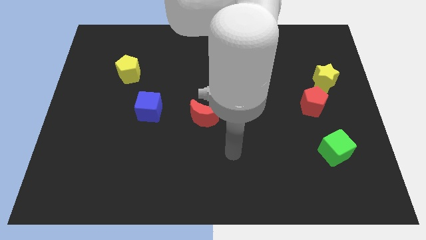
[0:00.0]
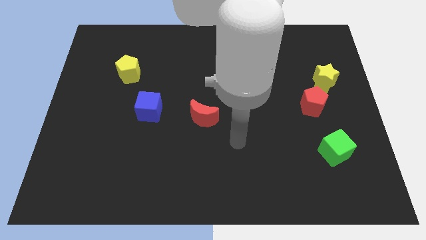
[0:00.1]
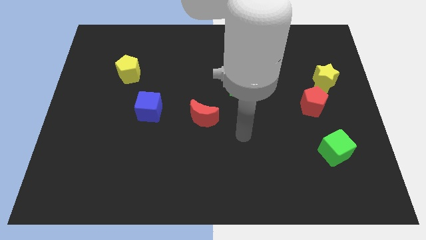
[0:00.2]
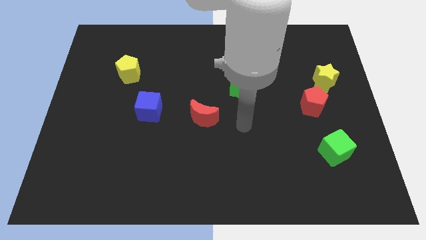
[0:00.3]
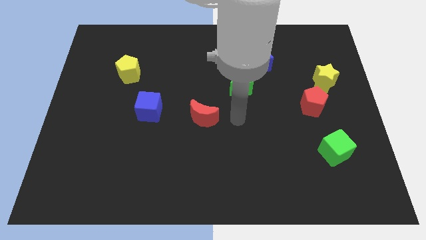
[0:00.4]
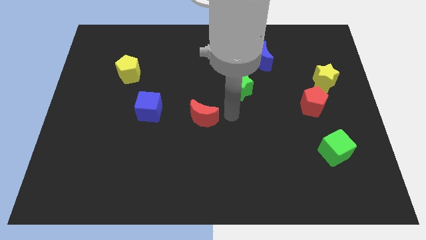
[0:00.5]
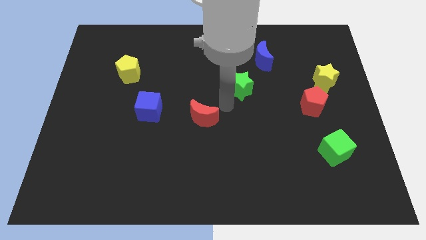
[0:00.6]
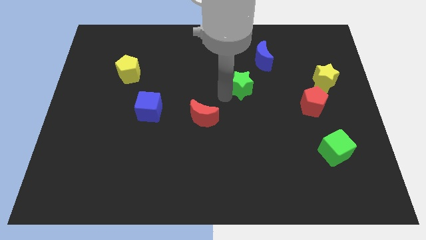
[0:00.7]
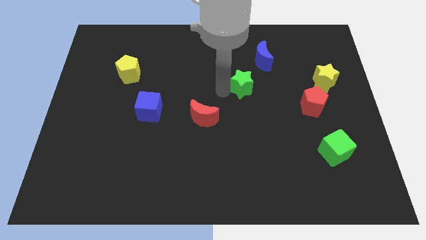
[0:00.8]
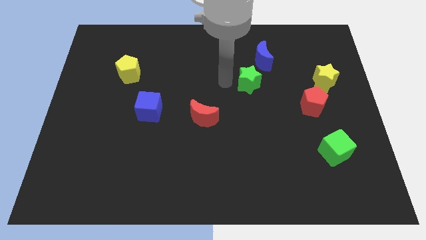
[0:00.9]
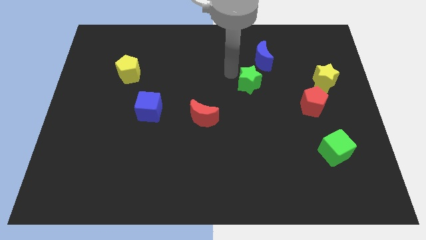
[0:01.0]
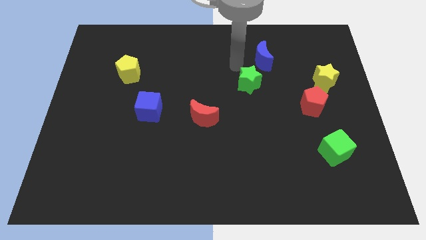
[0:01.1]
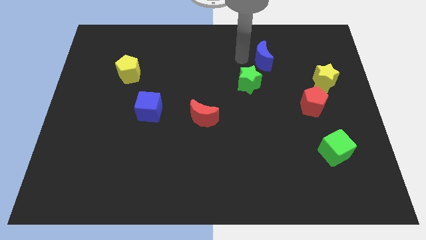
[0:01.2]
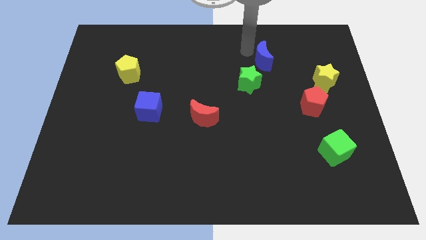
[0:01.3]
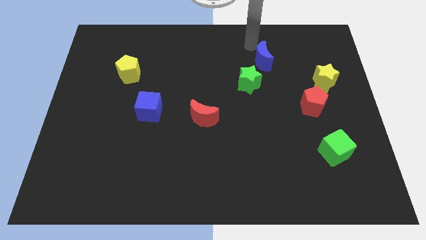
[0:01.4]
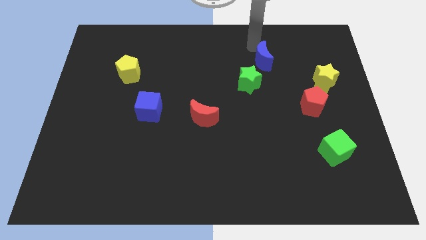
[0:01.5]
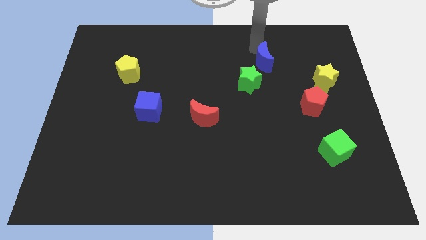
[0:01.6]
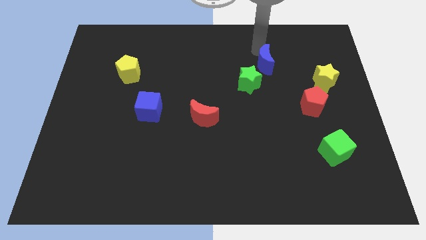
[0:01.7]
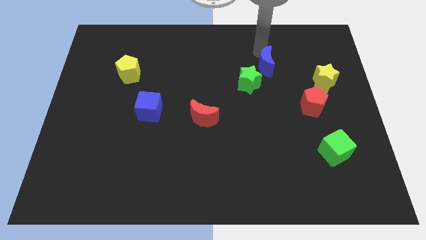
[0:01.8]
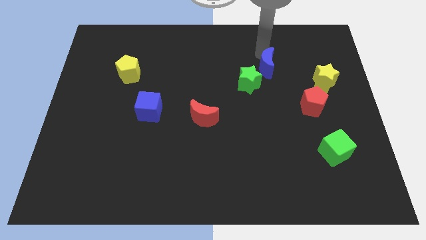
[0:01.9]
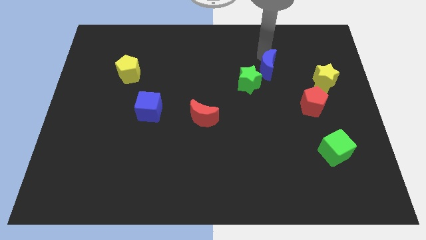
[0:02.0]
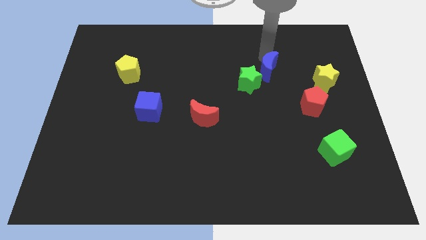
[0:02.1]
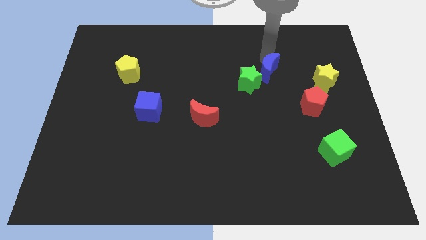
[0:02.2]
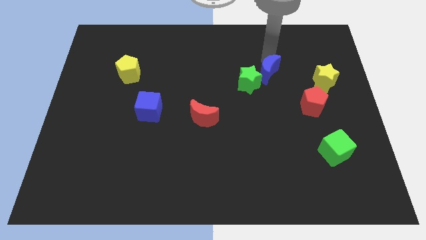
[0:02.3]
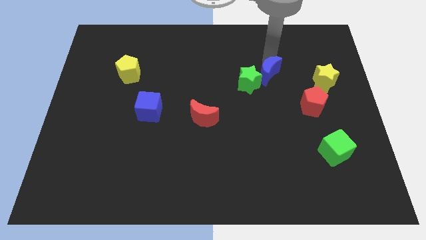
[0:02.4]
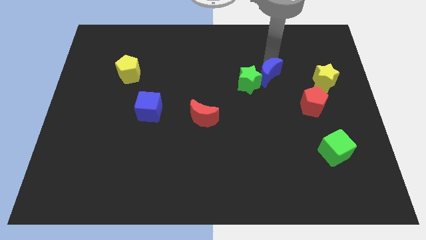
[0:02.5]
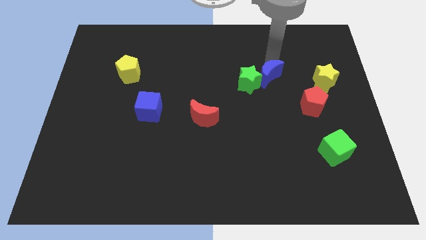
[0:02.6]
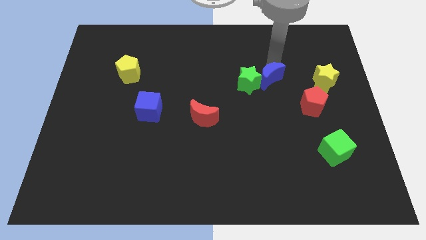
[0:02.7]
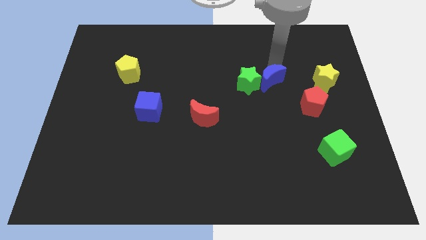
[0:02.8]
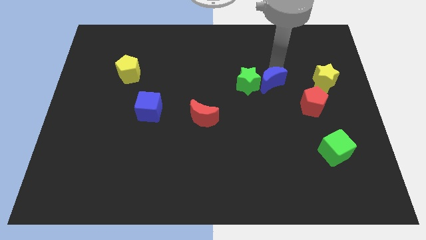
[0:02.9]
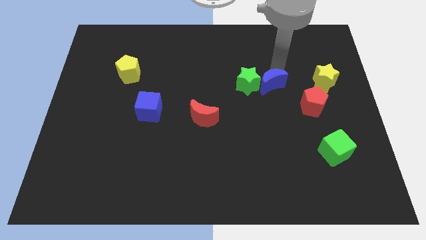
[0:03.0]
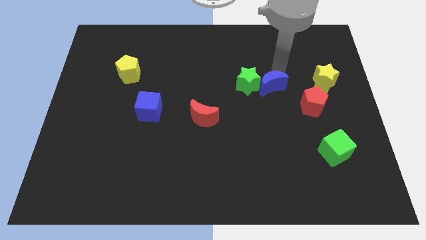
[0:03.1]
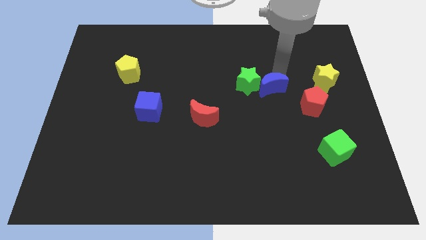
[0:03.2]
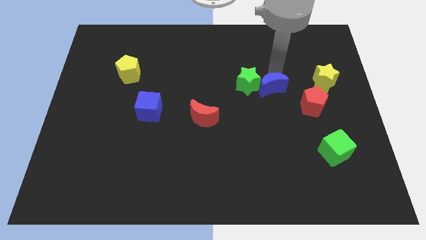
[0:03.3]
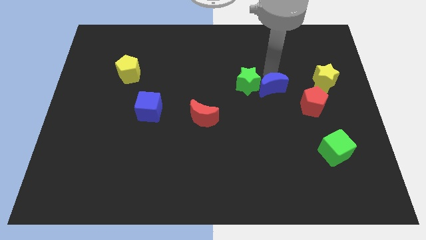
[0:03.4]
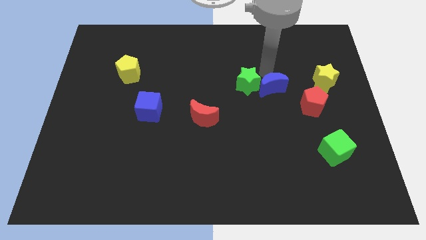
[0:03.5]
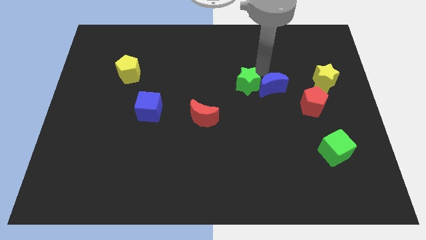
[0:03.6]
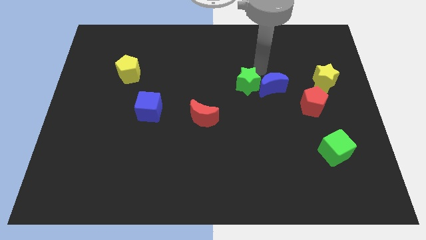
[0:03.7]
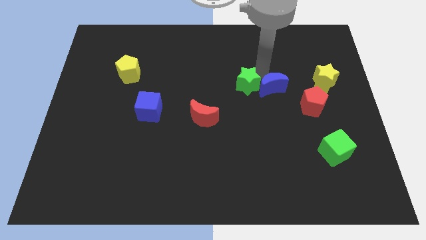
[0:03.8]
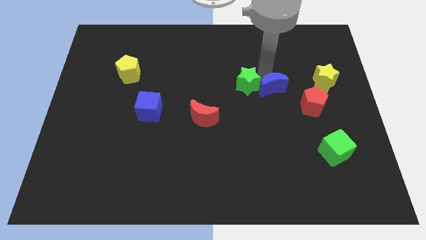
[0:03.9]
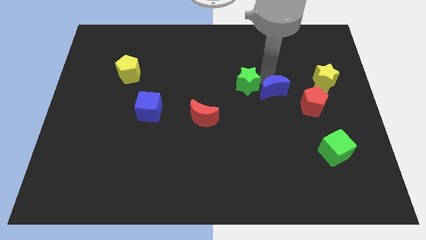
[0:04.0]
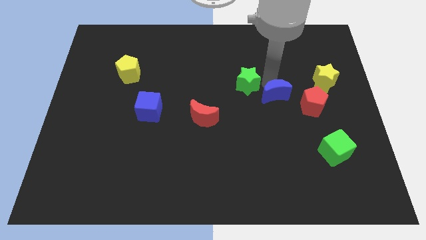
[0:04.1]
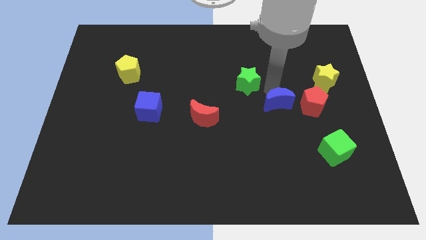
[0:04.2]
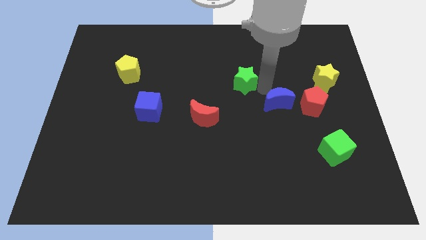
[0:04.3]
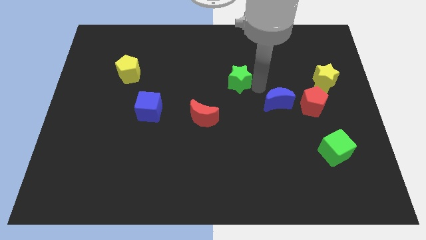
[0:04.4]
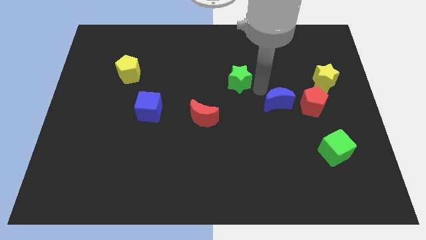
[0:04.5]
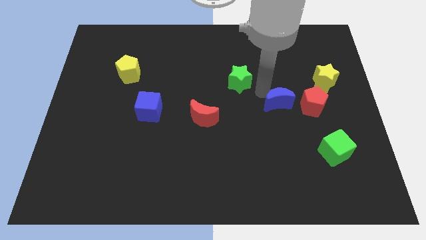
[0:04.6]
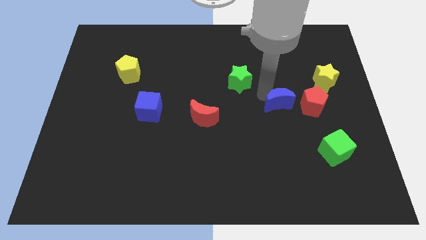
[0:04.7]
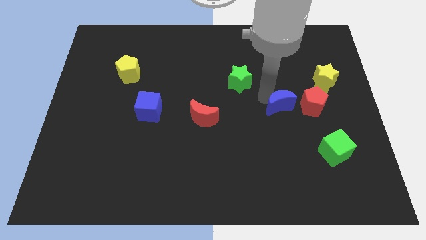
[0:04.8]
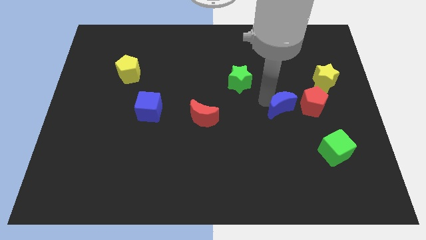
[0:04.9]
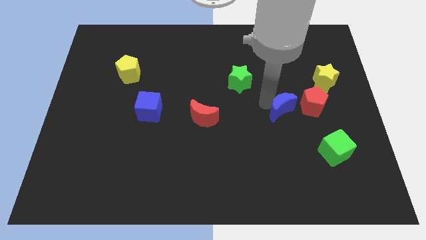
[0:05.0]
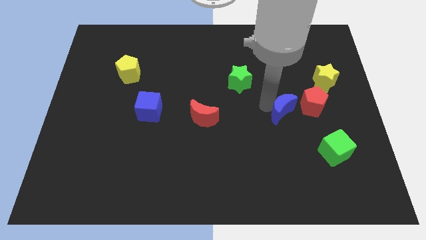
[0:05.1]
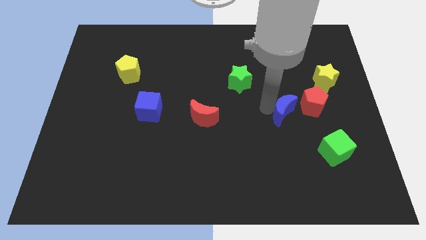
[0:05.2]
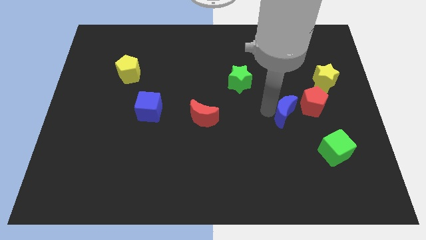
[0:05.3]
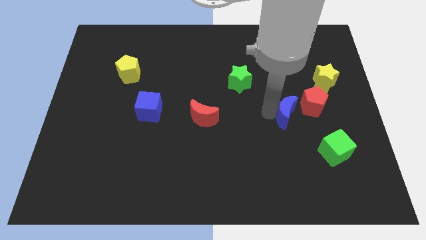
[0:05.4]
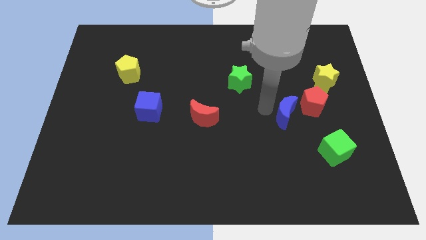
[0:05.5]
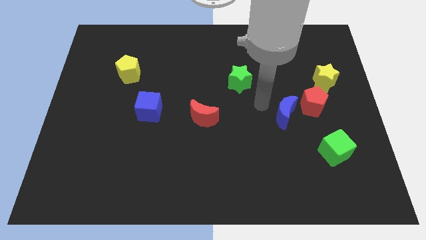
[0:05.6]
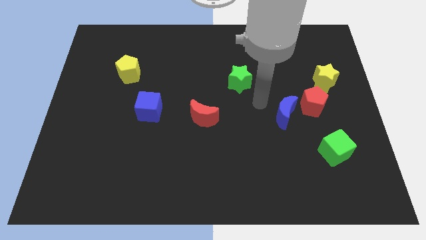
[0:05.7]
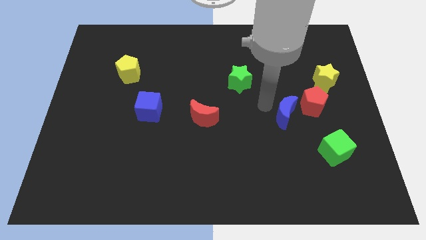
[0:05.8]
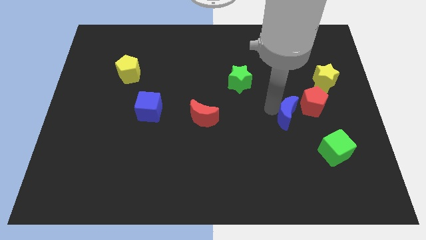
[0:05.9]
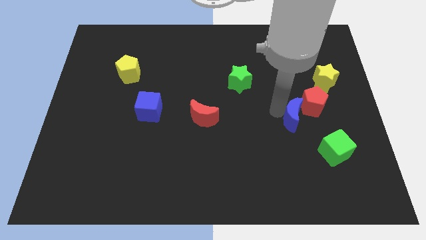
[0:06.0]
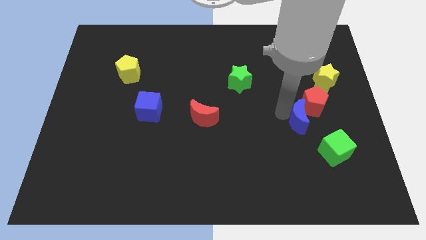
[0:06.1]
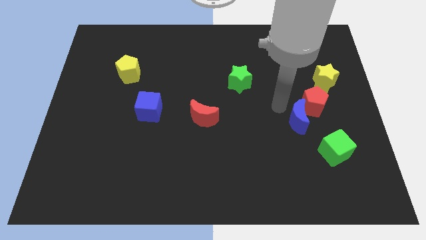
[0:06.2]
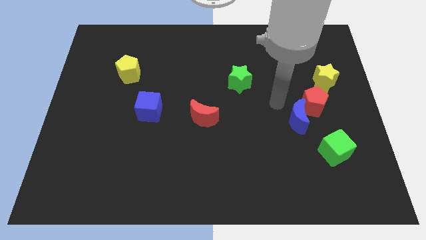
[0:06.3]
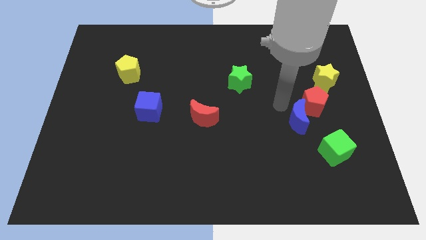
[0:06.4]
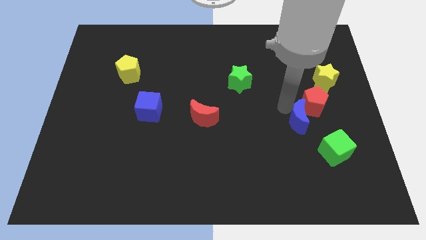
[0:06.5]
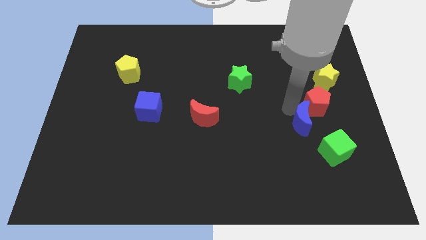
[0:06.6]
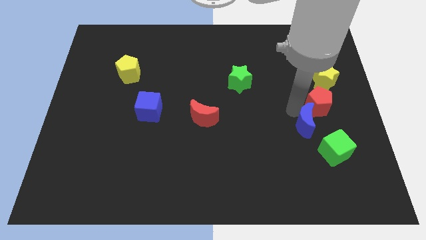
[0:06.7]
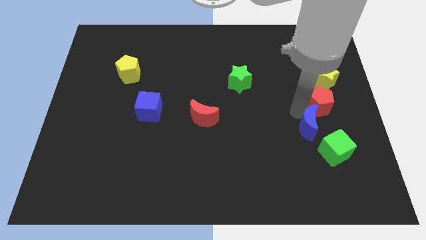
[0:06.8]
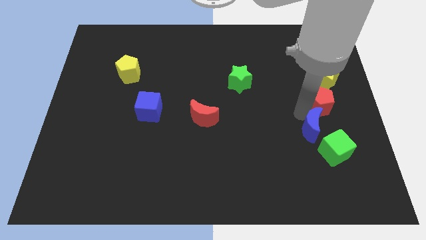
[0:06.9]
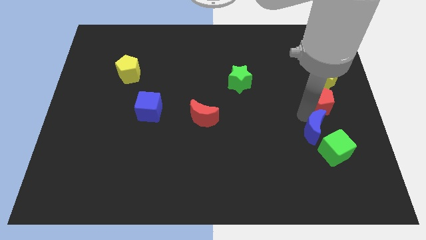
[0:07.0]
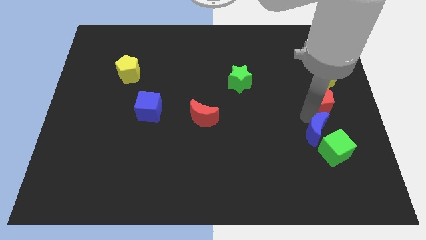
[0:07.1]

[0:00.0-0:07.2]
move the blue moon next to the green cube
